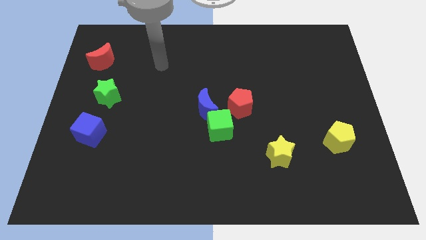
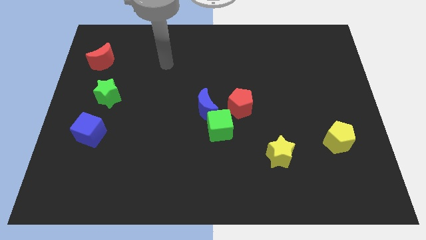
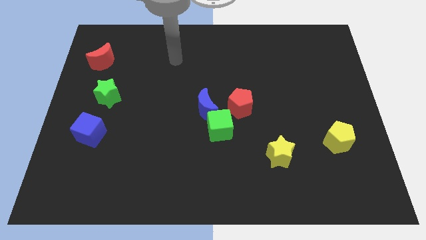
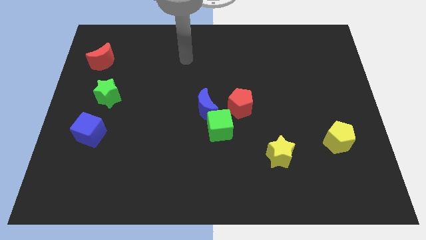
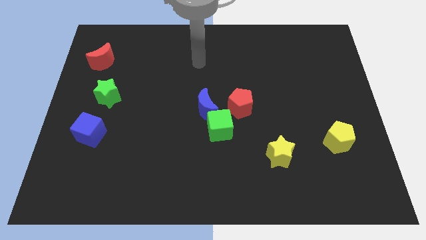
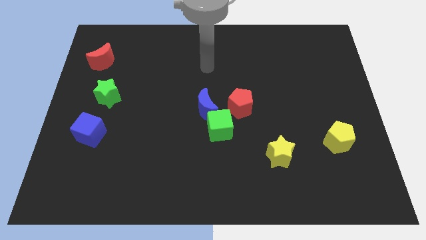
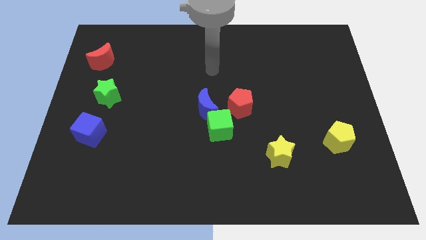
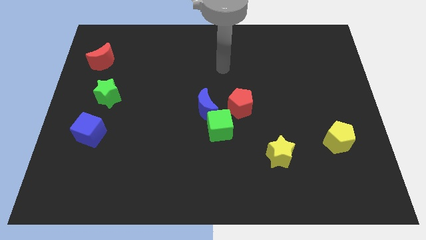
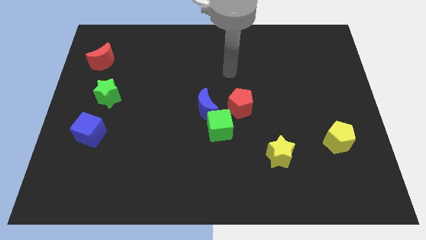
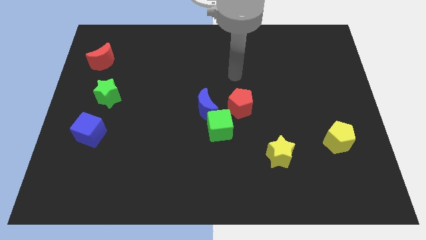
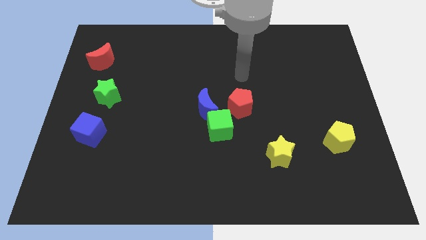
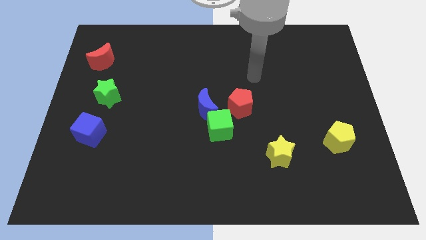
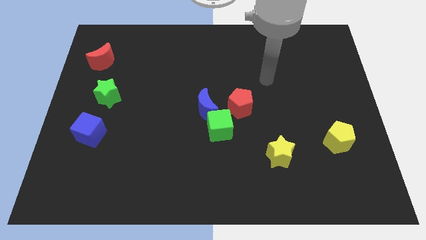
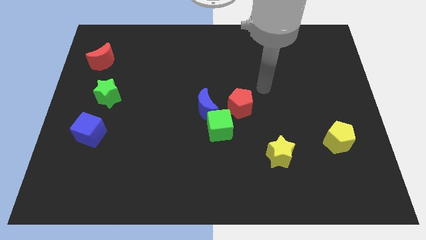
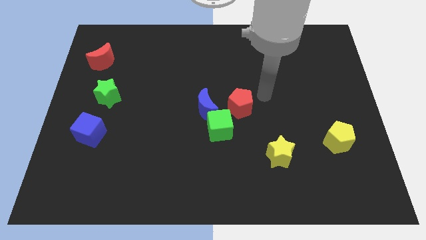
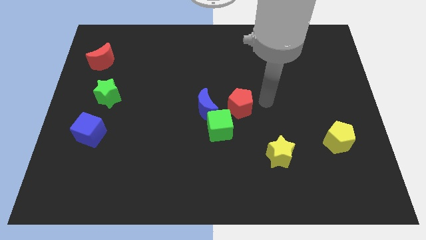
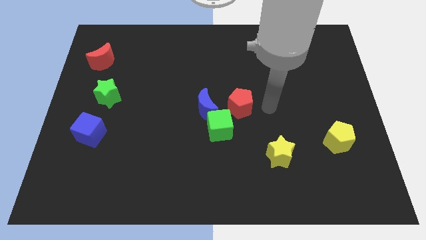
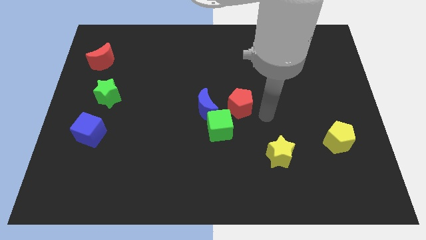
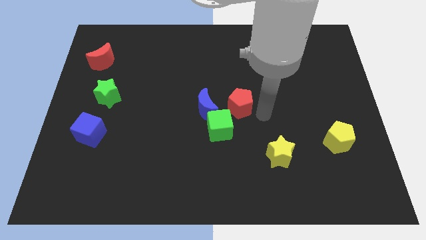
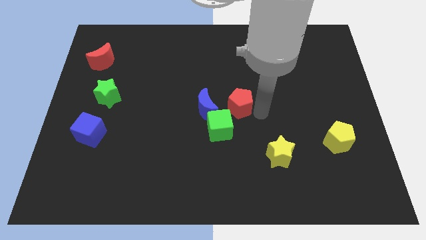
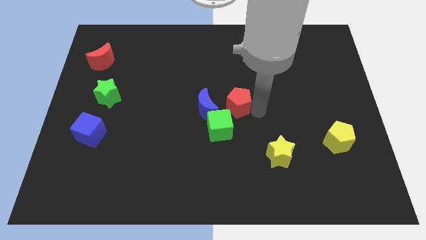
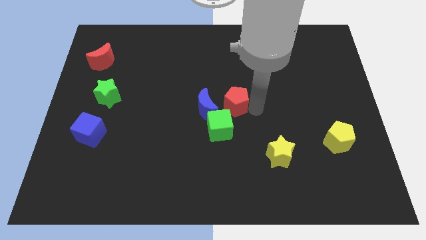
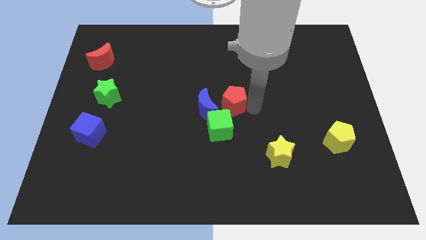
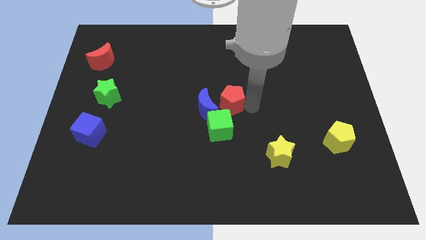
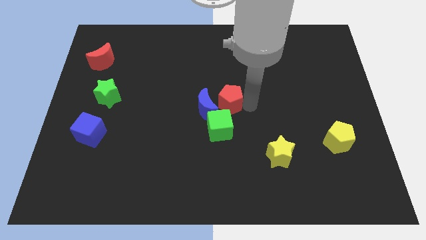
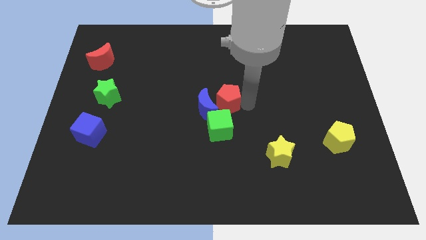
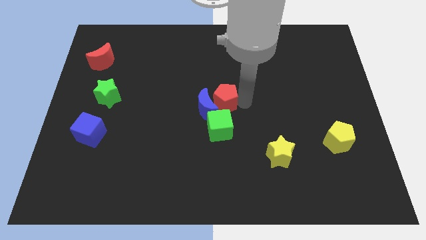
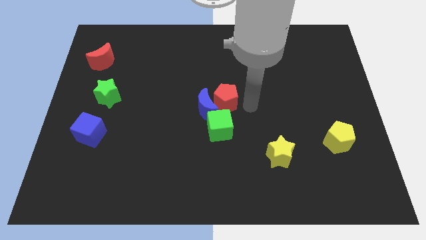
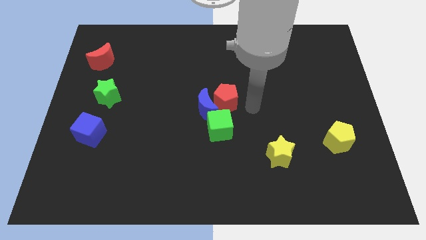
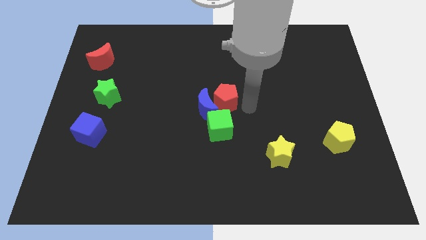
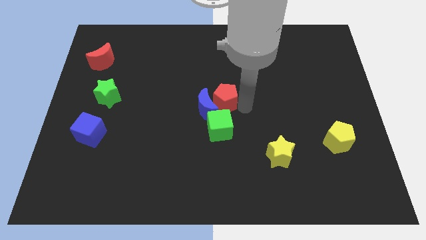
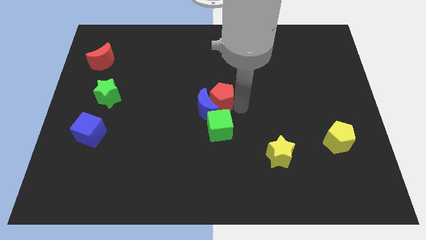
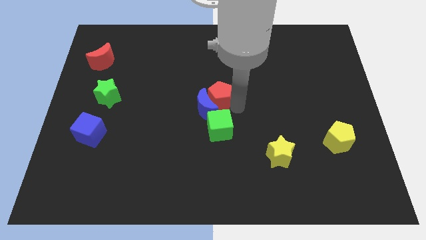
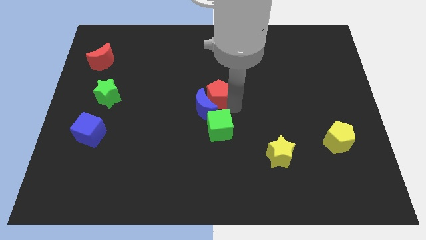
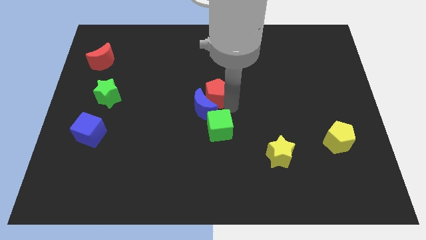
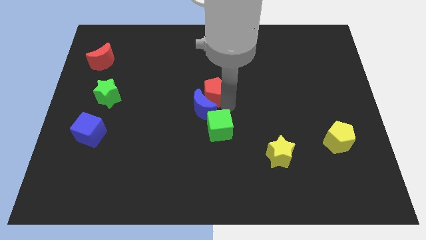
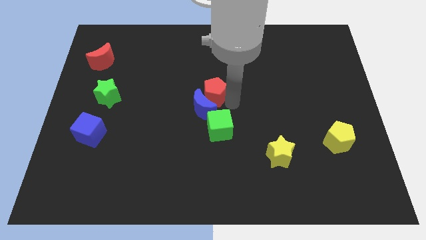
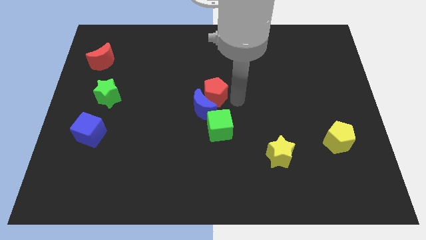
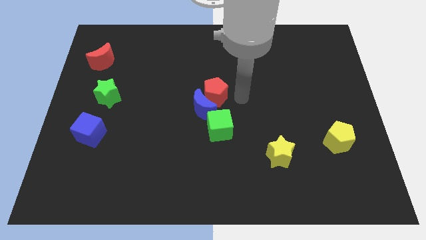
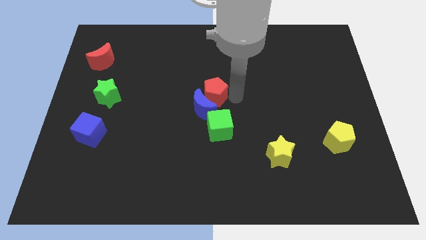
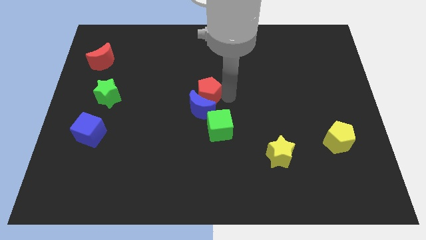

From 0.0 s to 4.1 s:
put the red pentagon to the top left side of the green cube

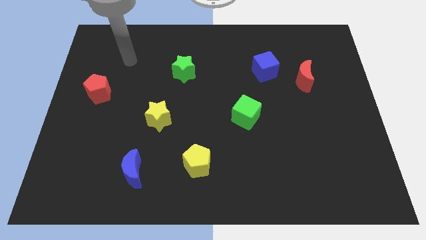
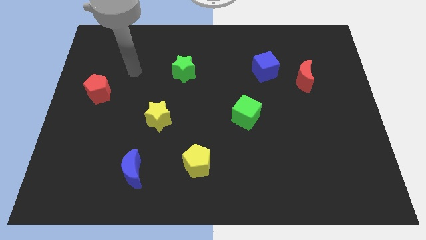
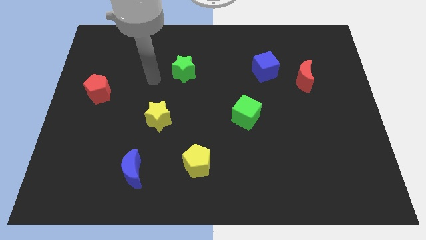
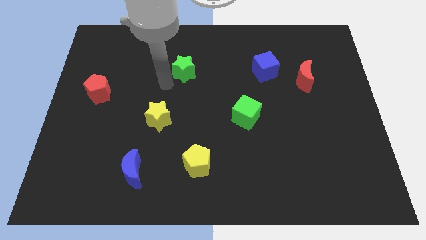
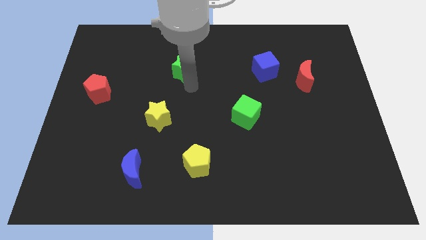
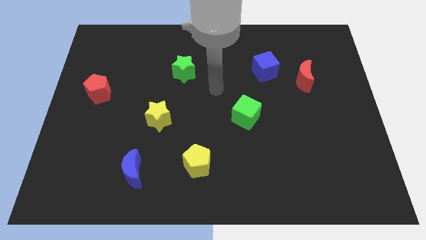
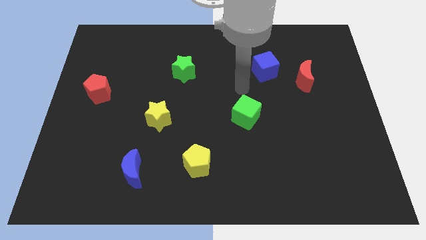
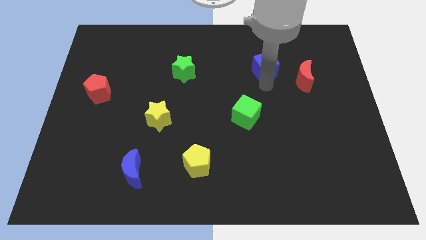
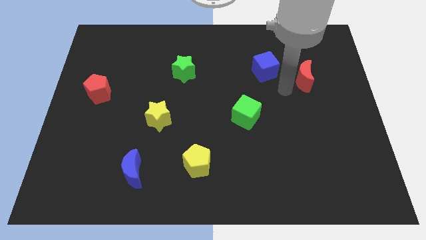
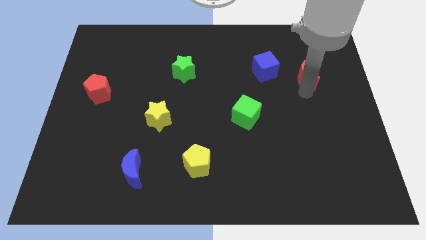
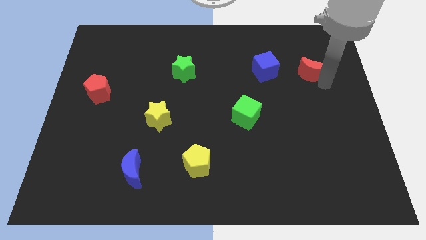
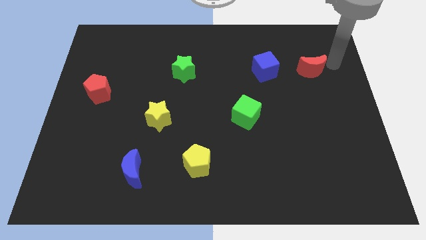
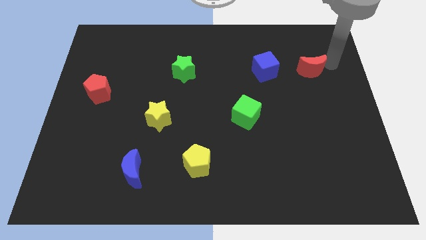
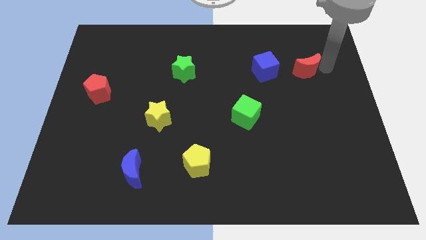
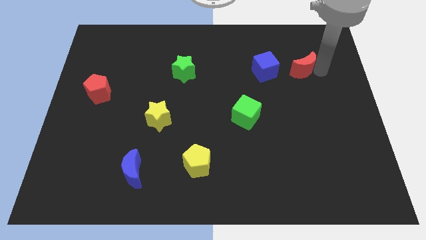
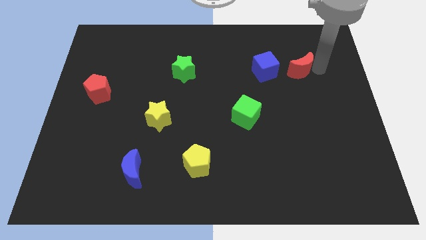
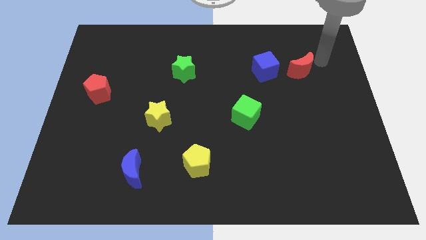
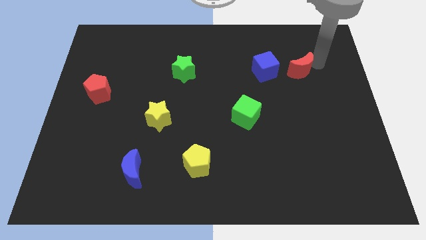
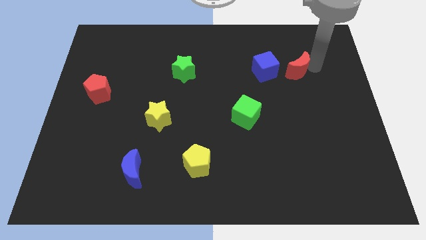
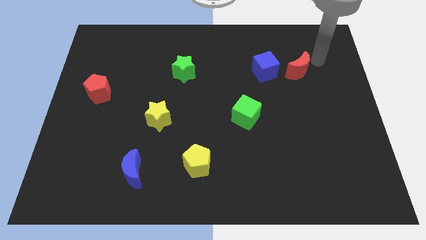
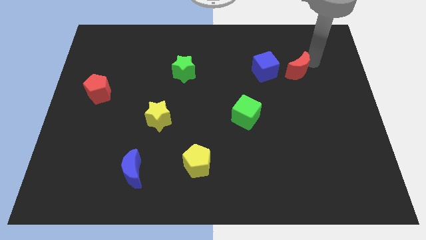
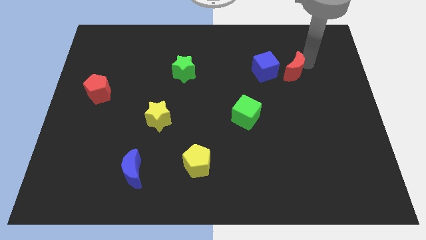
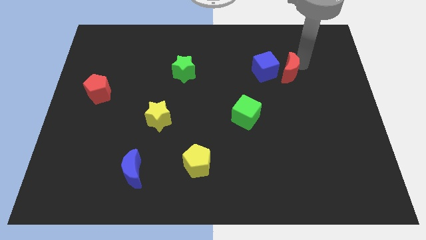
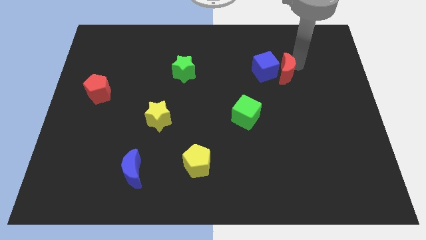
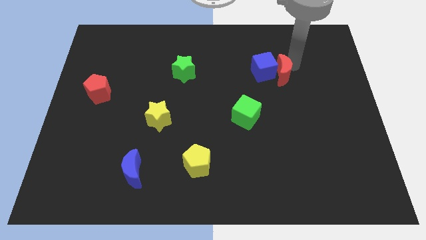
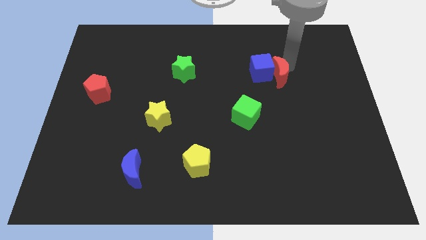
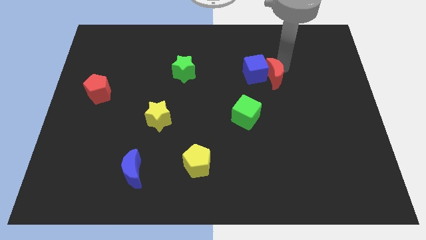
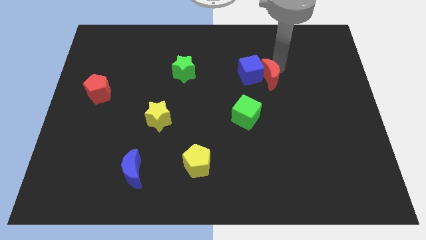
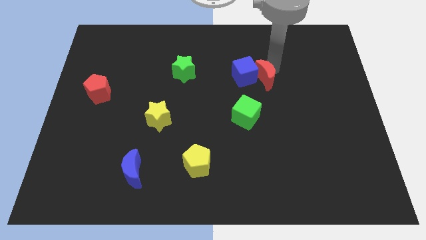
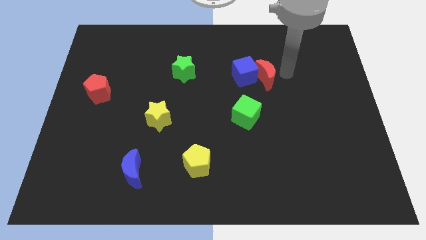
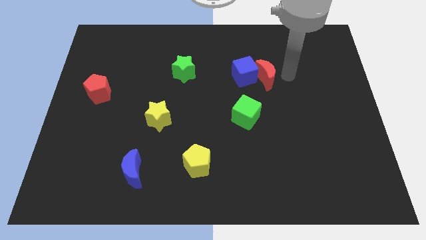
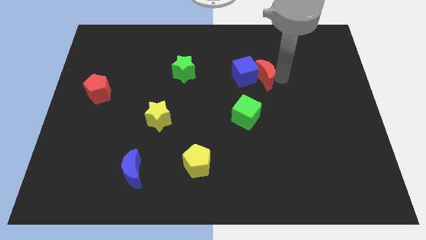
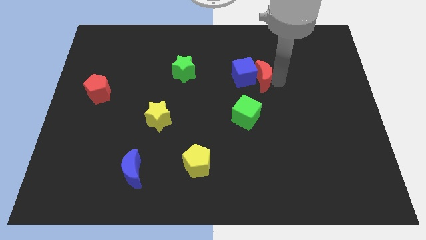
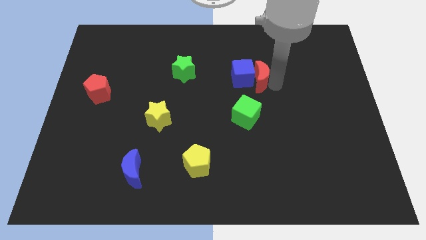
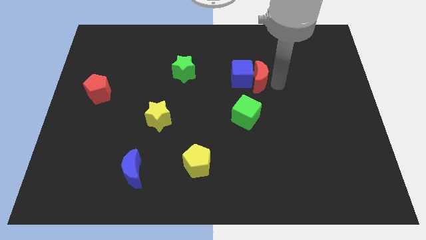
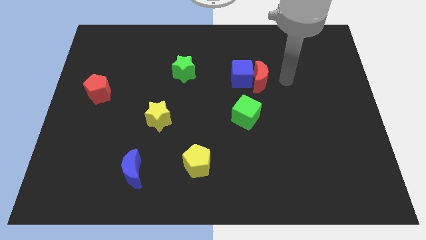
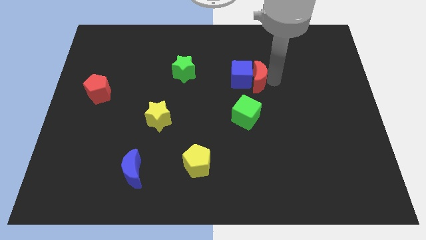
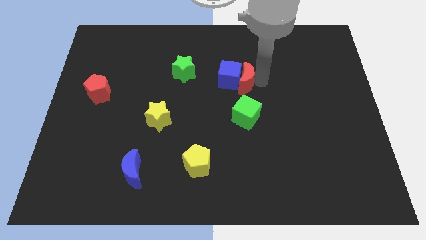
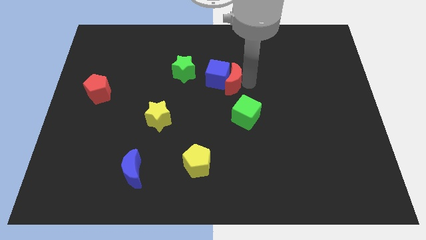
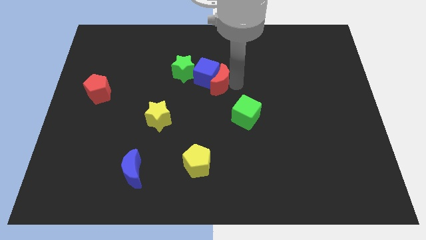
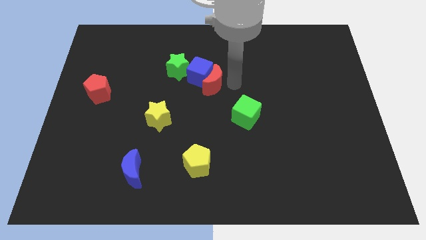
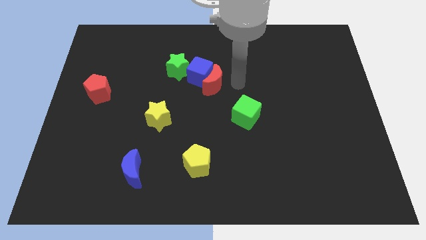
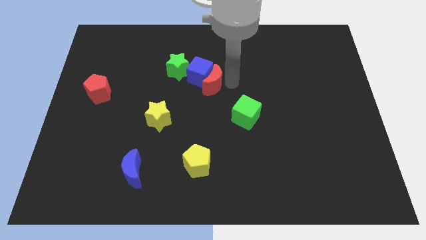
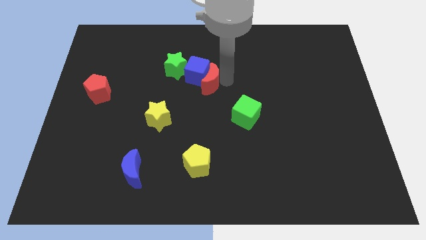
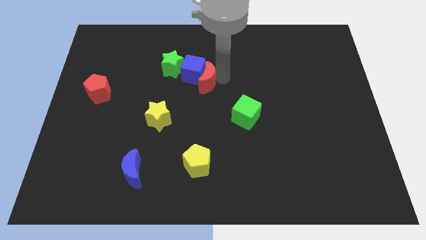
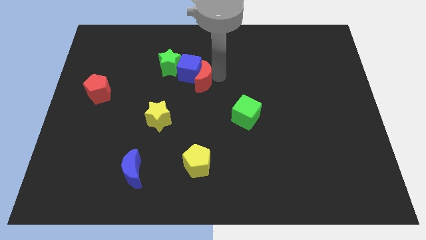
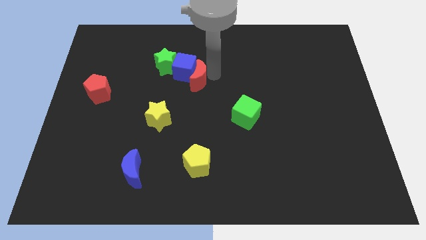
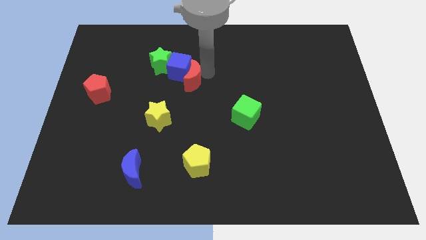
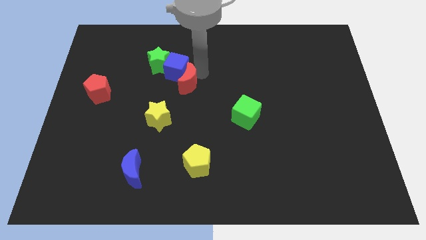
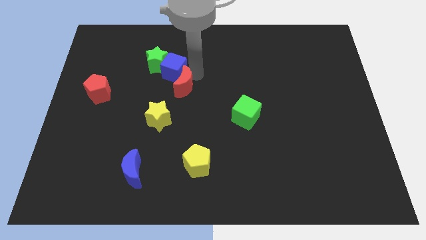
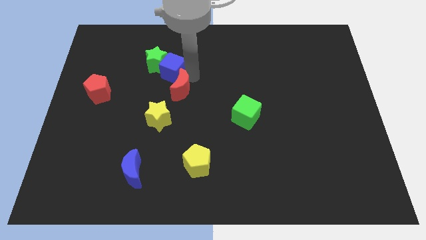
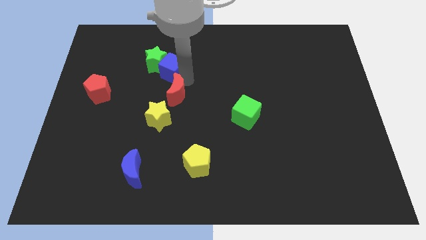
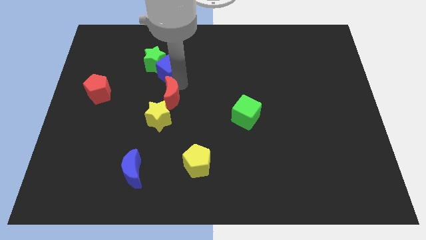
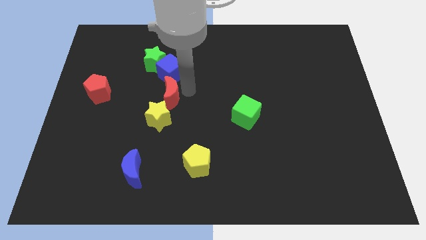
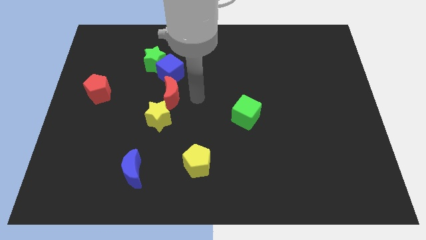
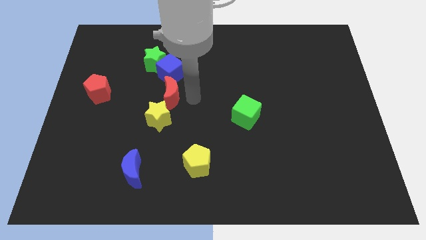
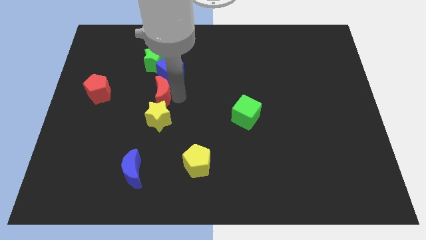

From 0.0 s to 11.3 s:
slide the red moon to the right side of the red pentagon
